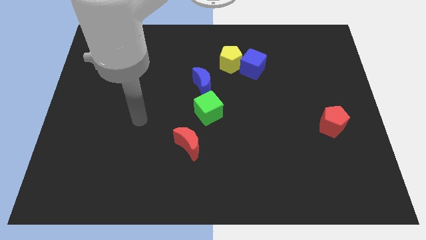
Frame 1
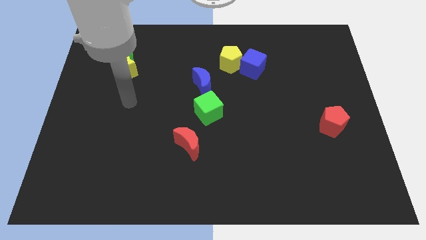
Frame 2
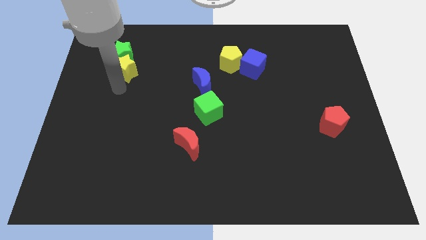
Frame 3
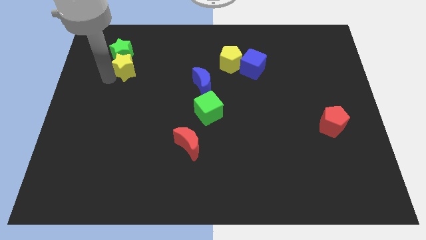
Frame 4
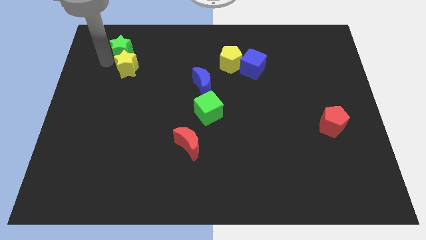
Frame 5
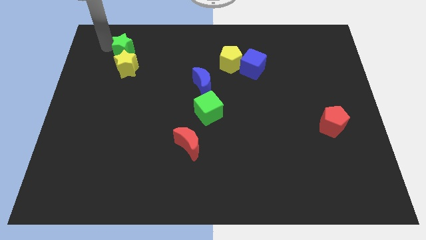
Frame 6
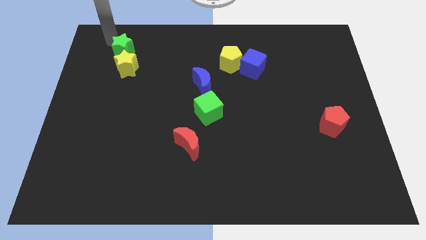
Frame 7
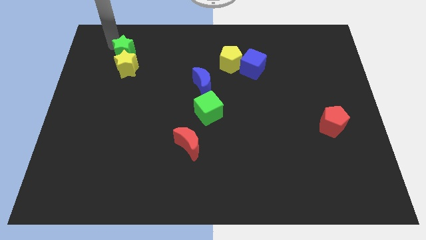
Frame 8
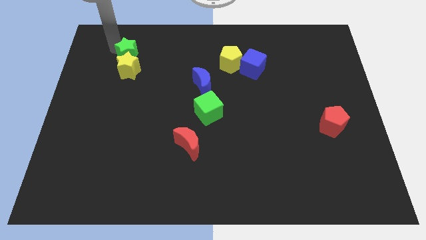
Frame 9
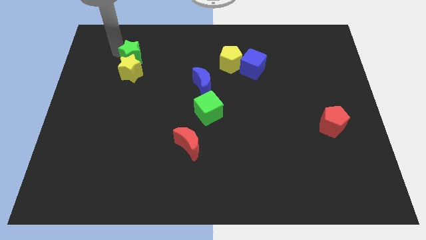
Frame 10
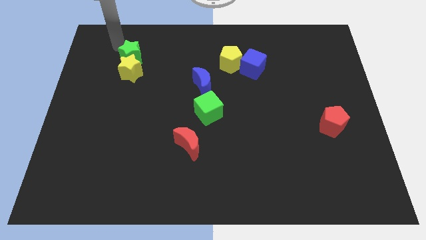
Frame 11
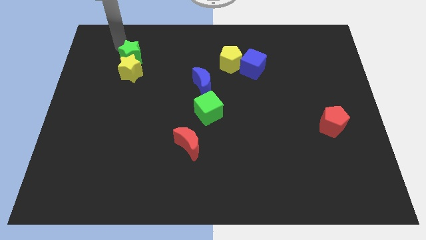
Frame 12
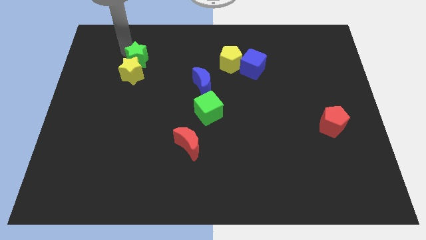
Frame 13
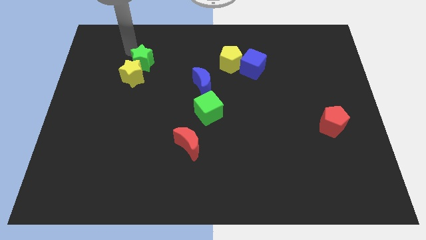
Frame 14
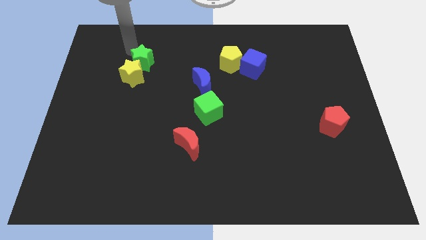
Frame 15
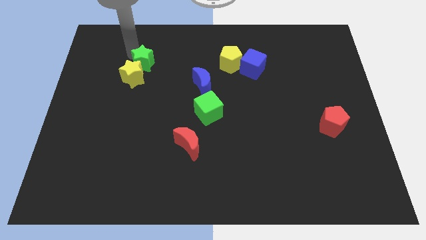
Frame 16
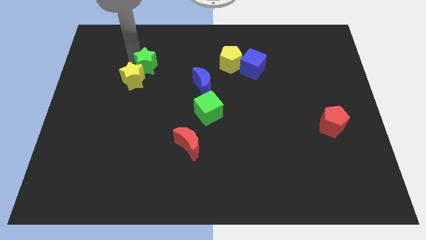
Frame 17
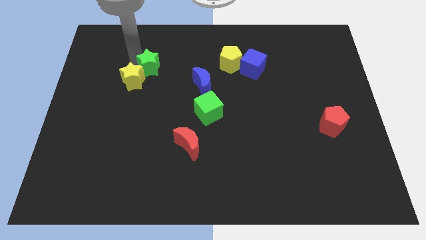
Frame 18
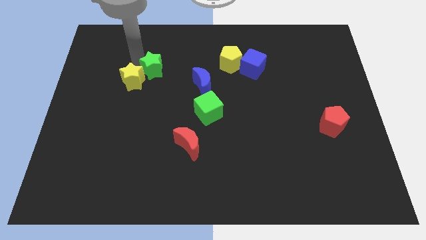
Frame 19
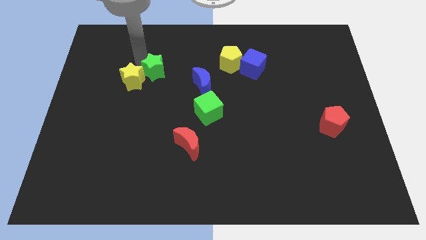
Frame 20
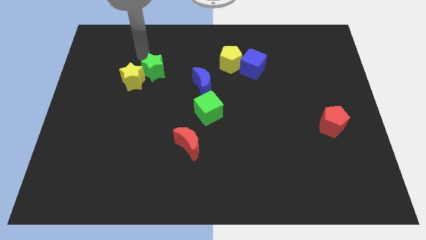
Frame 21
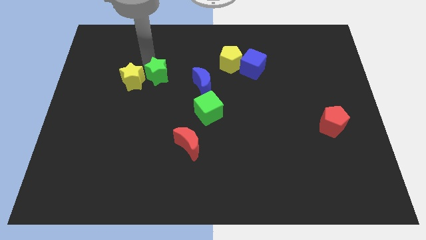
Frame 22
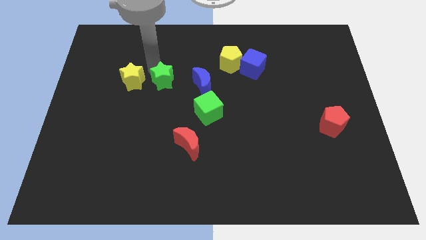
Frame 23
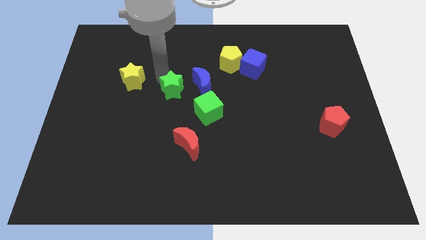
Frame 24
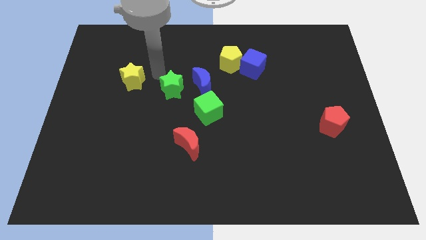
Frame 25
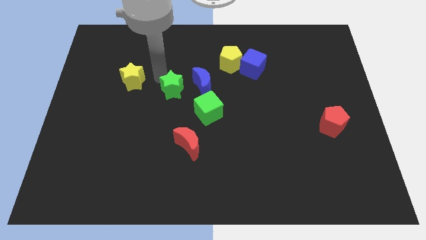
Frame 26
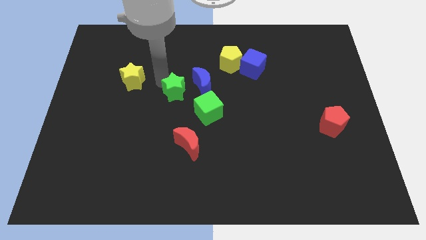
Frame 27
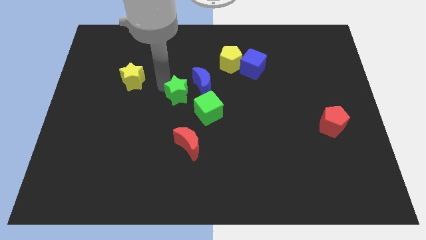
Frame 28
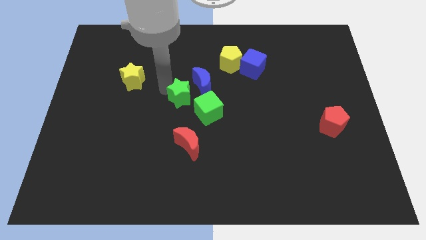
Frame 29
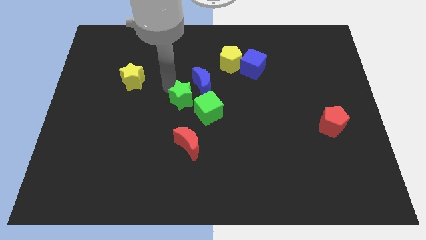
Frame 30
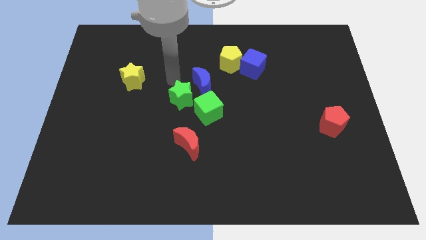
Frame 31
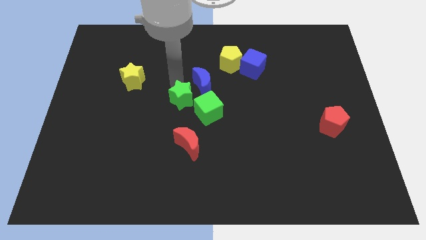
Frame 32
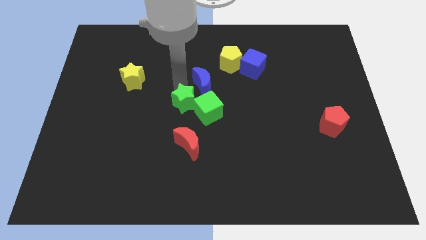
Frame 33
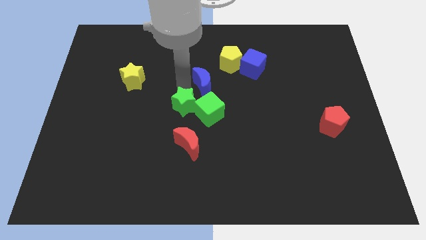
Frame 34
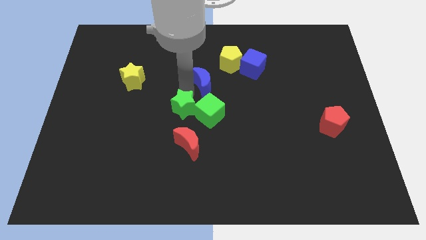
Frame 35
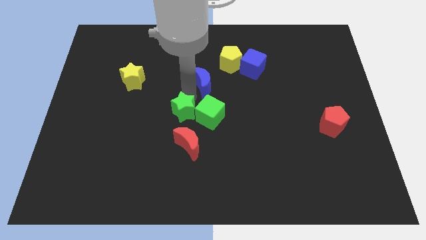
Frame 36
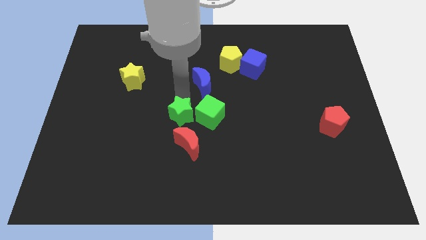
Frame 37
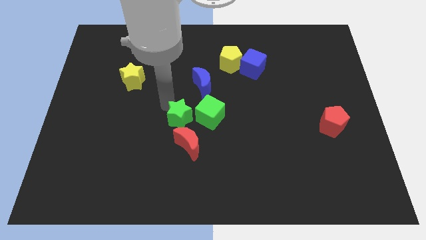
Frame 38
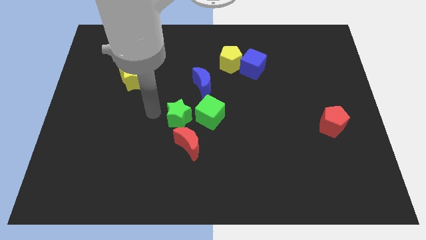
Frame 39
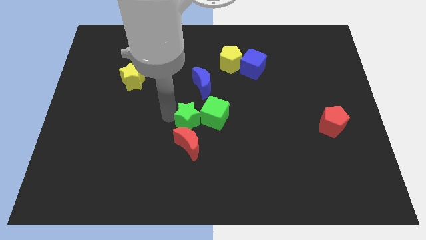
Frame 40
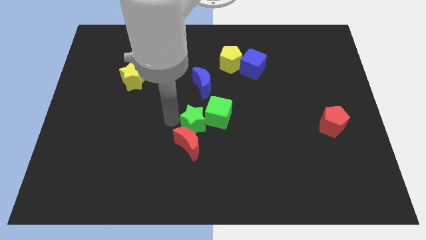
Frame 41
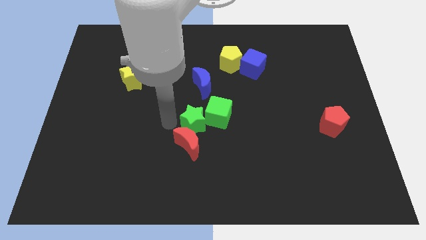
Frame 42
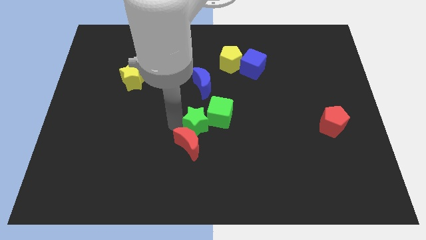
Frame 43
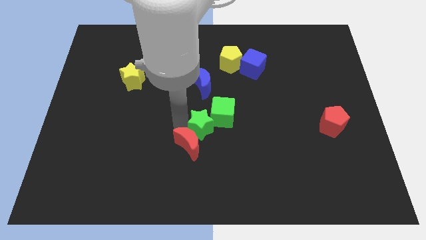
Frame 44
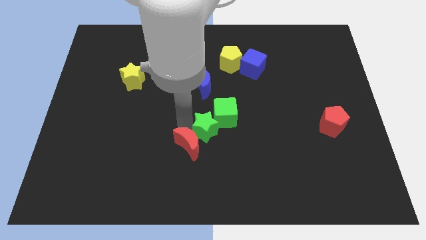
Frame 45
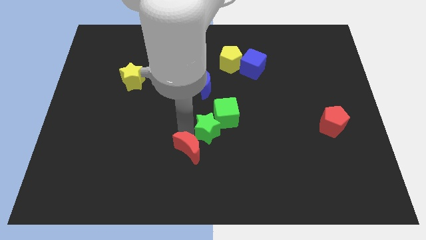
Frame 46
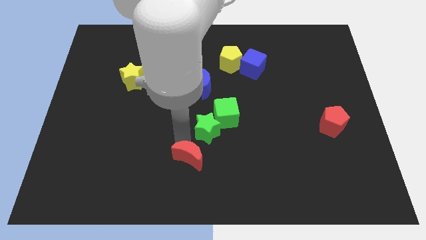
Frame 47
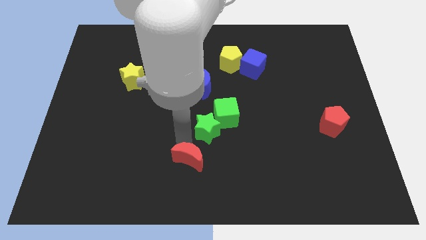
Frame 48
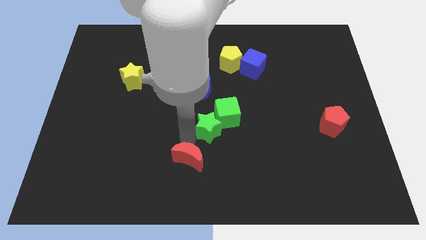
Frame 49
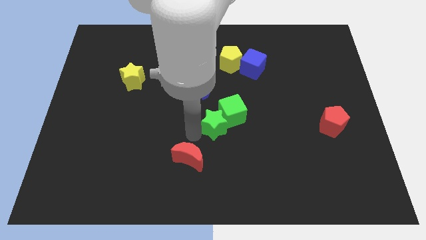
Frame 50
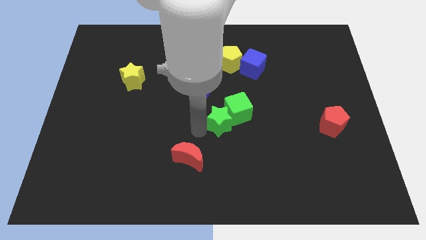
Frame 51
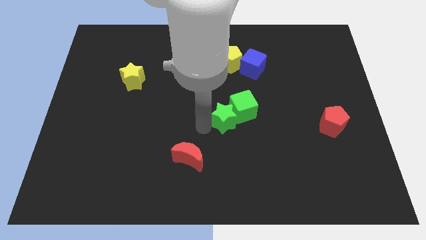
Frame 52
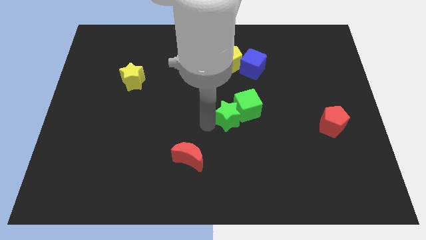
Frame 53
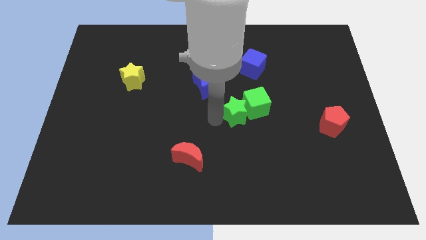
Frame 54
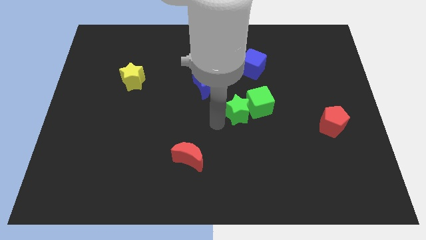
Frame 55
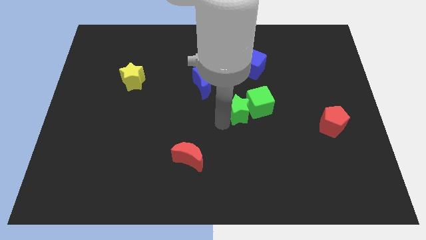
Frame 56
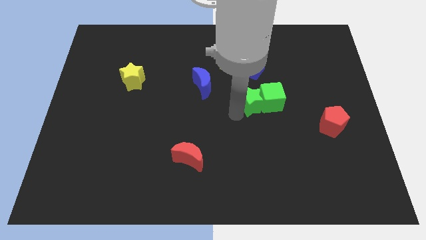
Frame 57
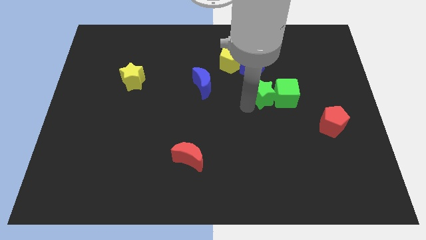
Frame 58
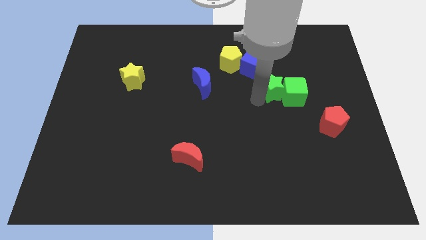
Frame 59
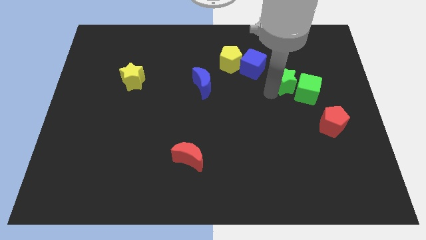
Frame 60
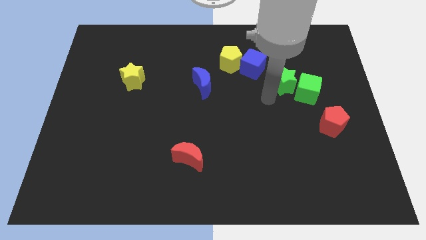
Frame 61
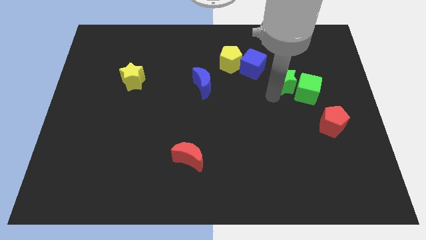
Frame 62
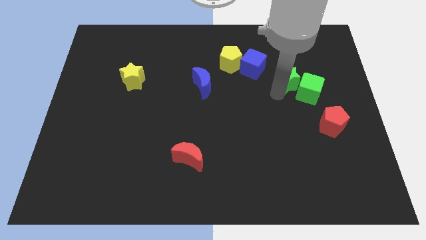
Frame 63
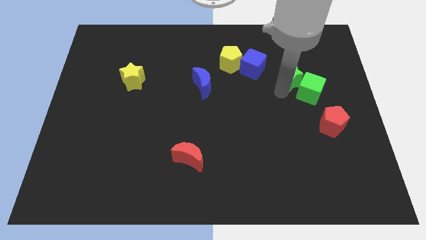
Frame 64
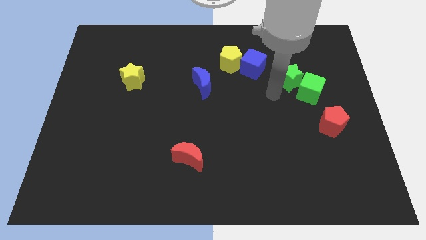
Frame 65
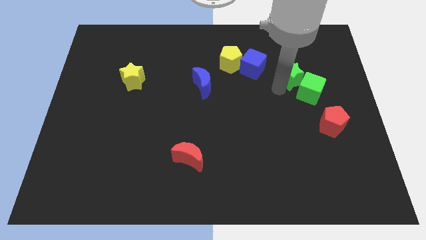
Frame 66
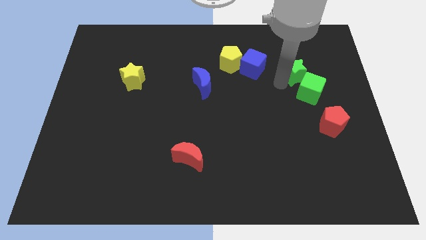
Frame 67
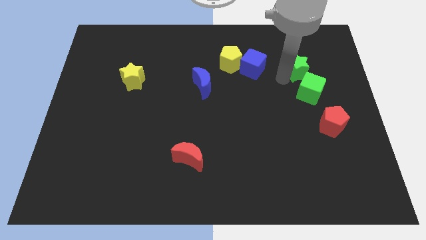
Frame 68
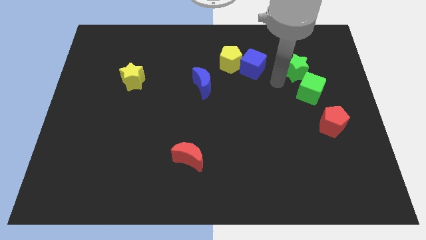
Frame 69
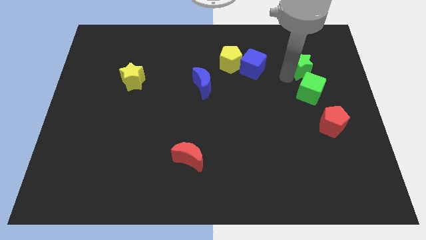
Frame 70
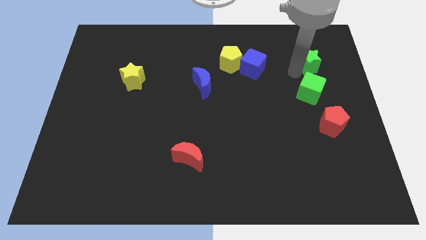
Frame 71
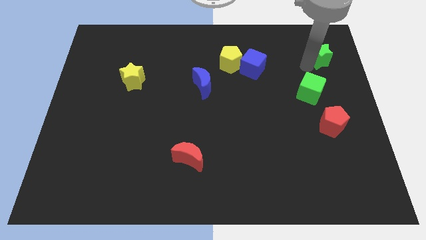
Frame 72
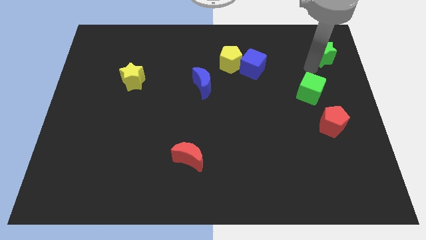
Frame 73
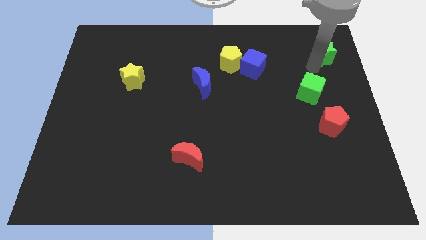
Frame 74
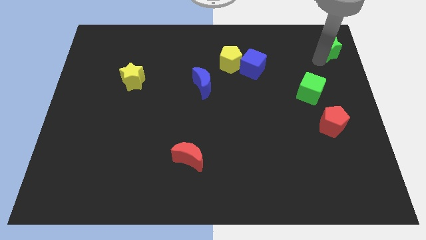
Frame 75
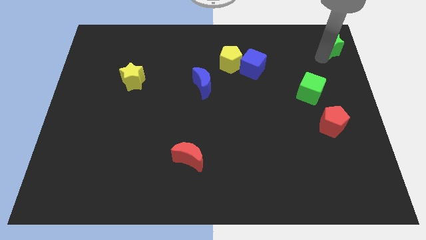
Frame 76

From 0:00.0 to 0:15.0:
slide the green star to the top right corner
